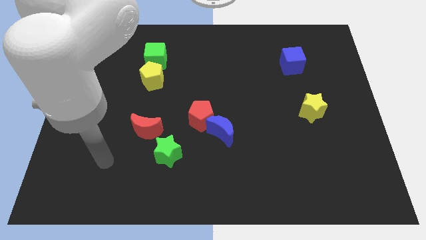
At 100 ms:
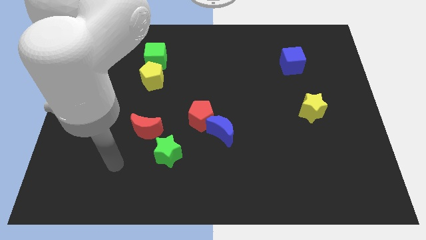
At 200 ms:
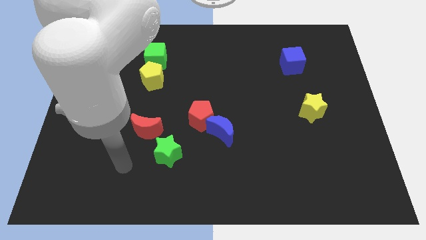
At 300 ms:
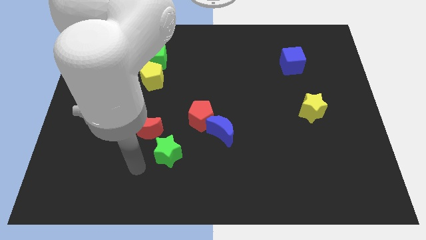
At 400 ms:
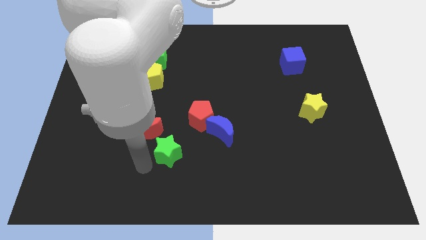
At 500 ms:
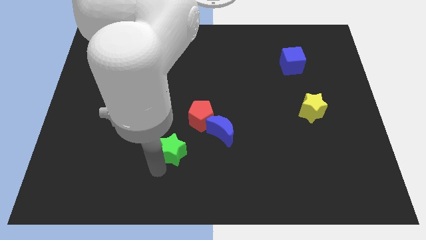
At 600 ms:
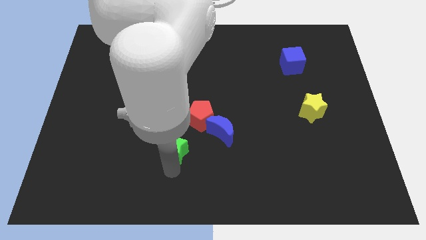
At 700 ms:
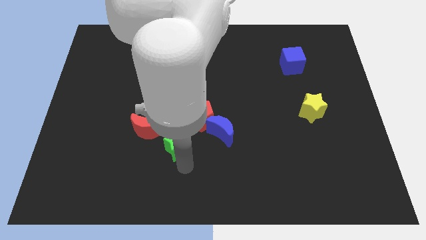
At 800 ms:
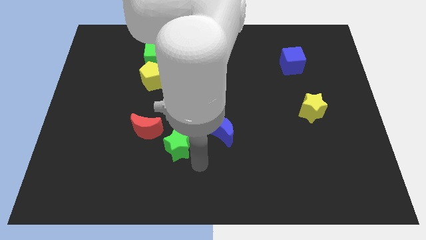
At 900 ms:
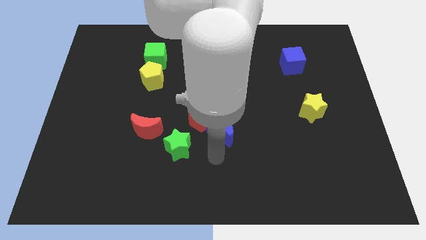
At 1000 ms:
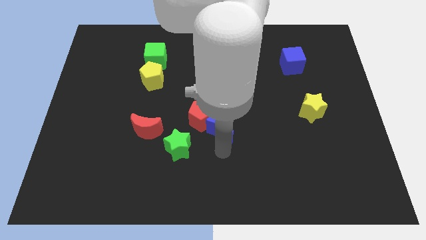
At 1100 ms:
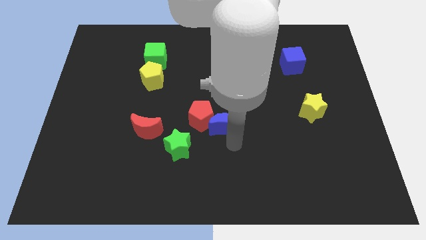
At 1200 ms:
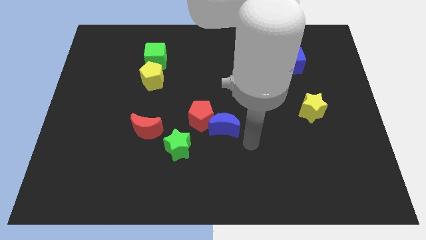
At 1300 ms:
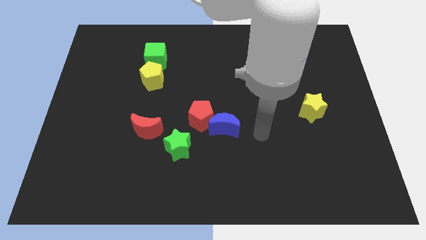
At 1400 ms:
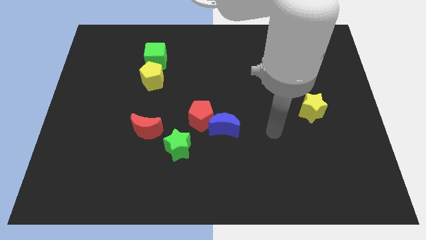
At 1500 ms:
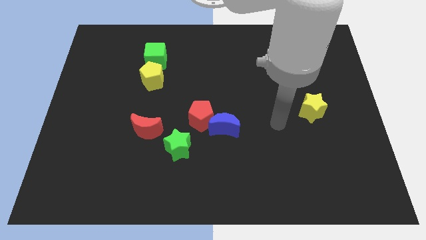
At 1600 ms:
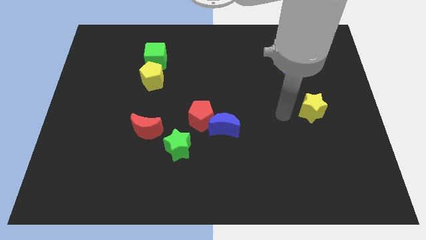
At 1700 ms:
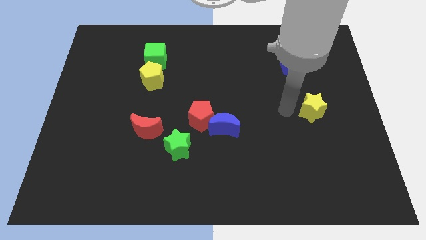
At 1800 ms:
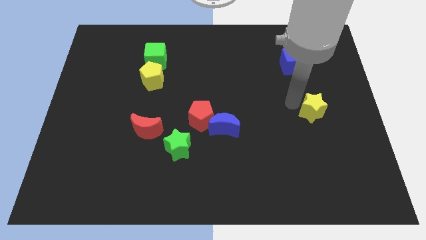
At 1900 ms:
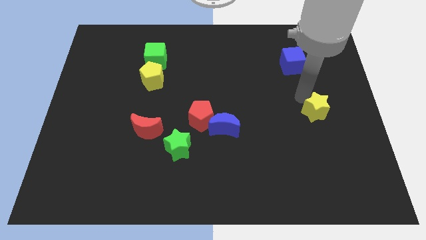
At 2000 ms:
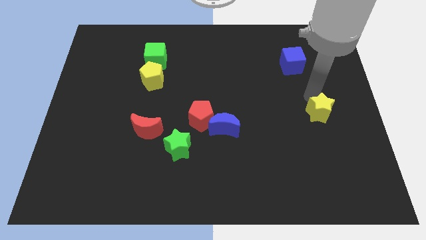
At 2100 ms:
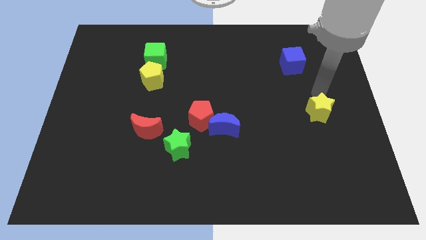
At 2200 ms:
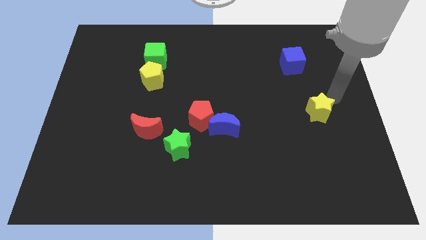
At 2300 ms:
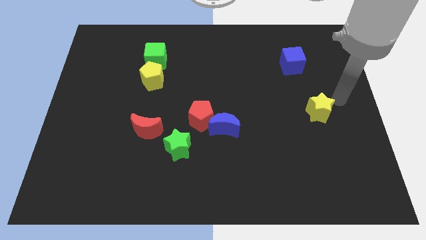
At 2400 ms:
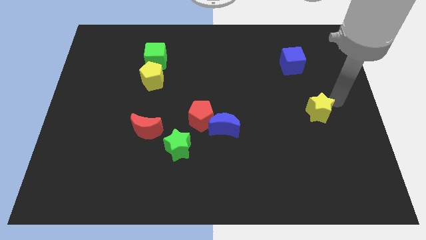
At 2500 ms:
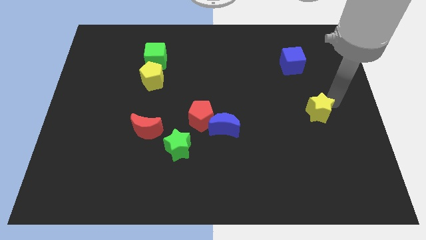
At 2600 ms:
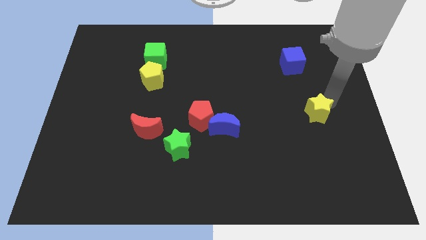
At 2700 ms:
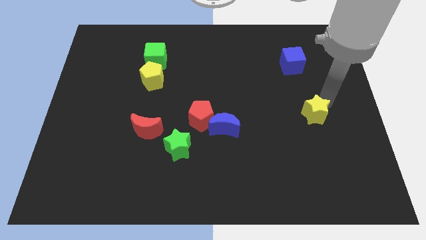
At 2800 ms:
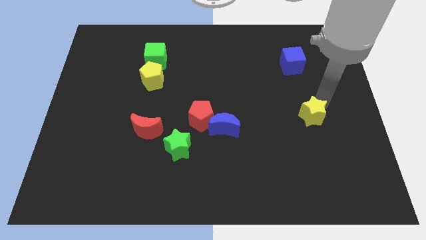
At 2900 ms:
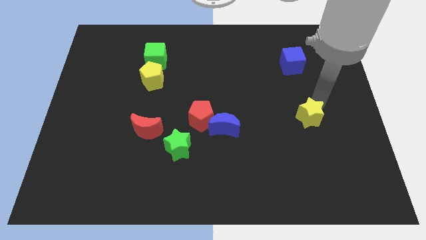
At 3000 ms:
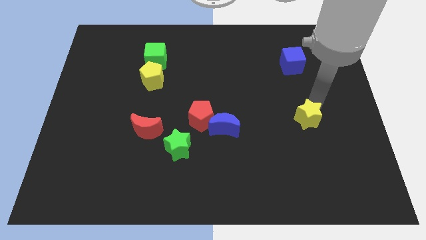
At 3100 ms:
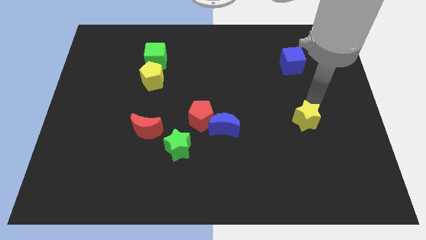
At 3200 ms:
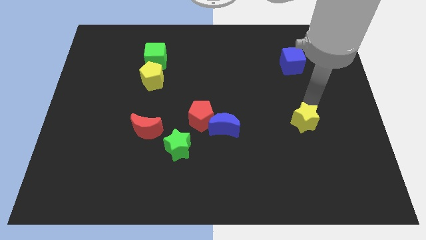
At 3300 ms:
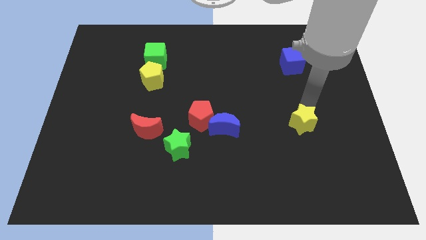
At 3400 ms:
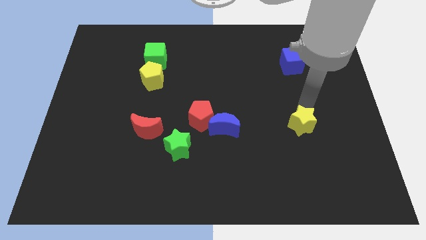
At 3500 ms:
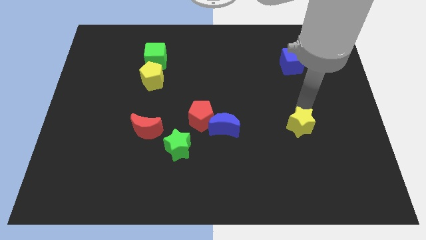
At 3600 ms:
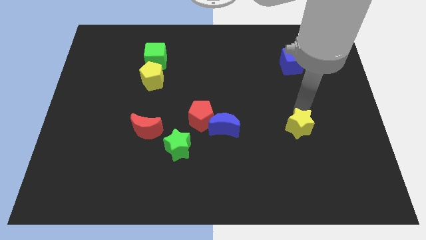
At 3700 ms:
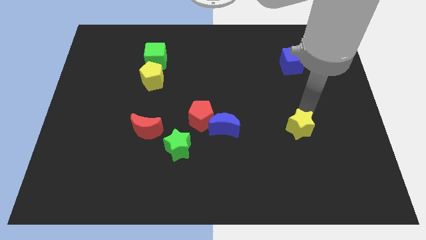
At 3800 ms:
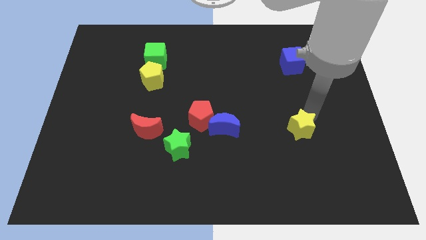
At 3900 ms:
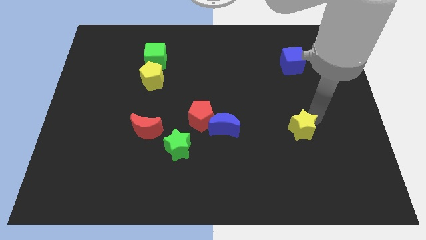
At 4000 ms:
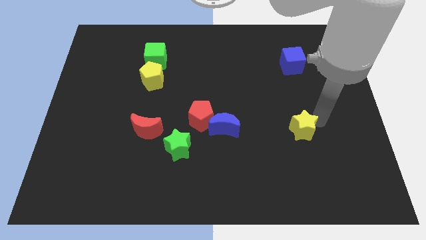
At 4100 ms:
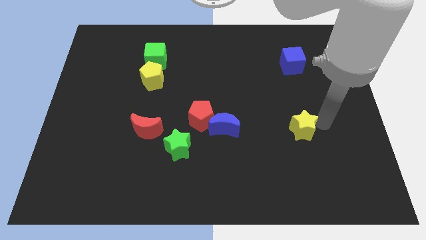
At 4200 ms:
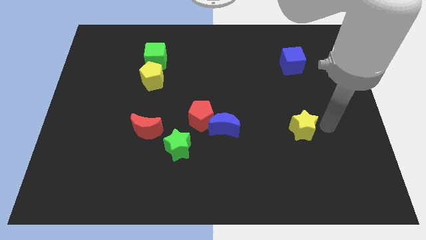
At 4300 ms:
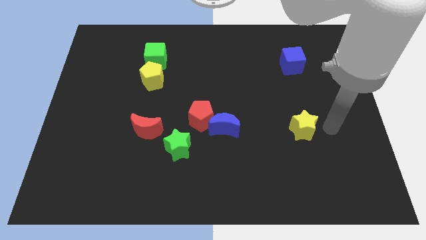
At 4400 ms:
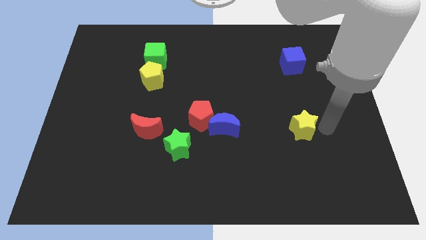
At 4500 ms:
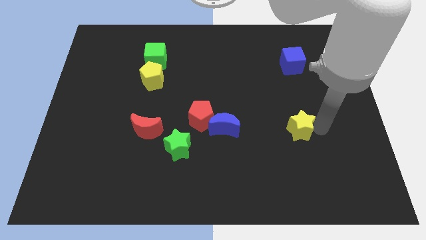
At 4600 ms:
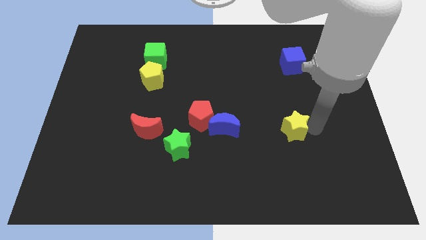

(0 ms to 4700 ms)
slide the yellow star downwards and left diagonally a bit

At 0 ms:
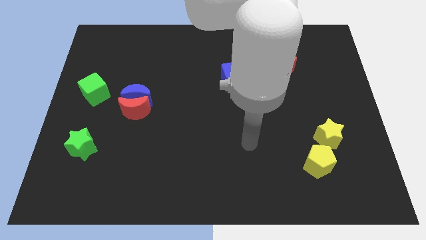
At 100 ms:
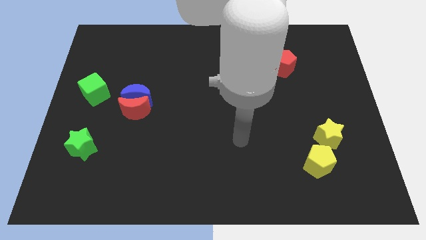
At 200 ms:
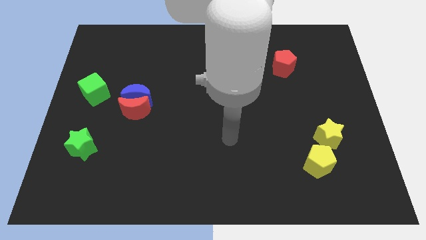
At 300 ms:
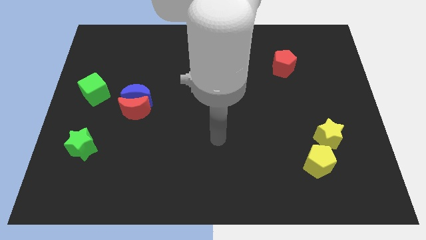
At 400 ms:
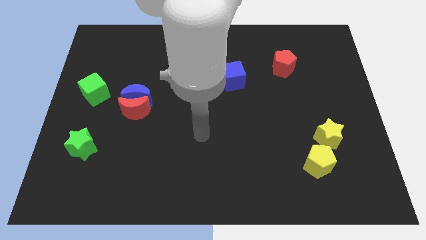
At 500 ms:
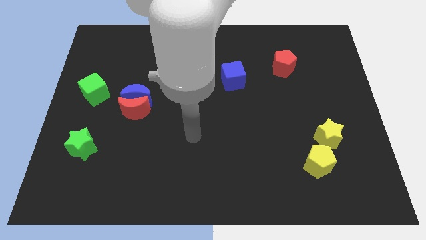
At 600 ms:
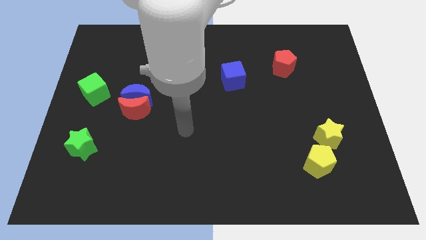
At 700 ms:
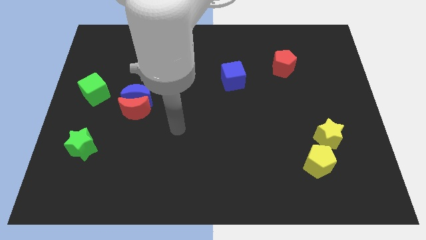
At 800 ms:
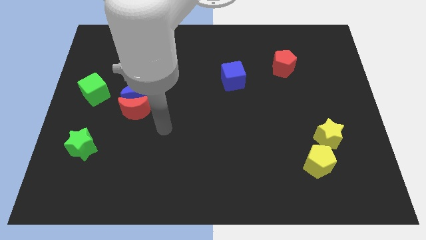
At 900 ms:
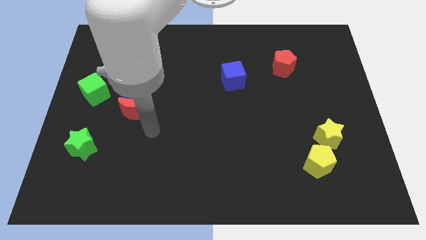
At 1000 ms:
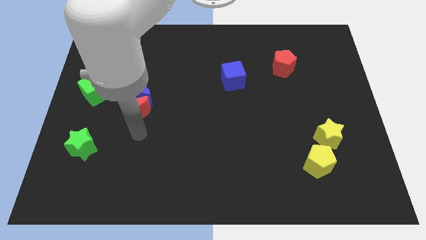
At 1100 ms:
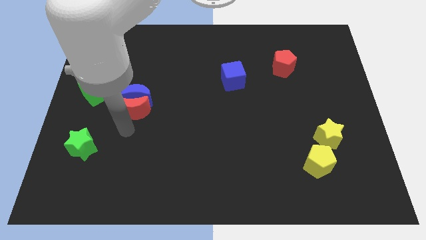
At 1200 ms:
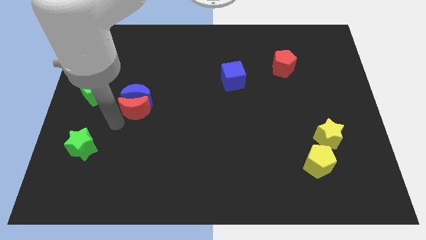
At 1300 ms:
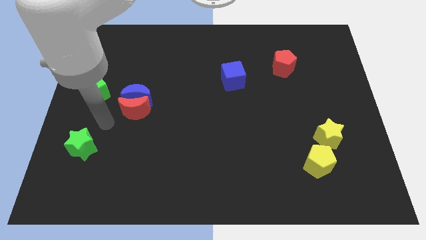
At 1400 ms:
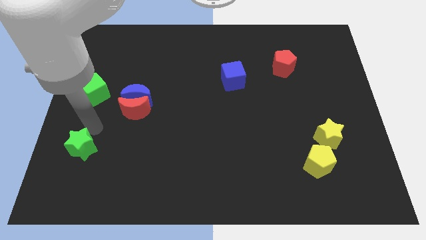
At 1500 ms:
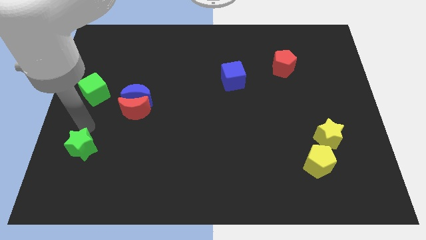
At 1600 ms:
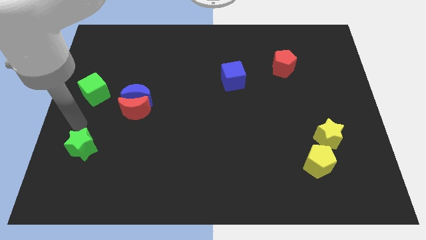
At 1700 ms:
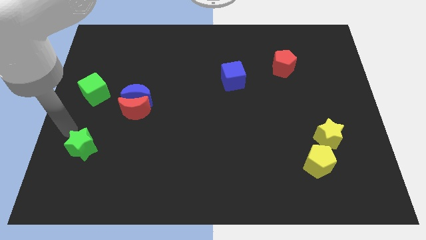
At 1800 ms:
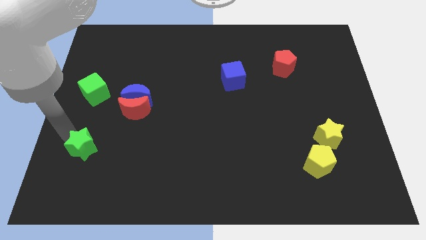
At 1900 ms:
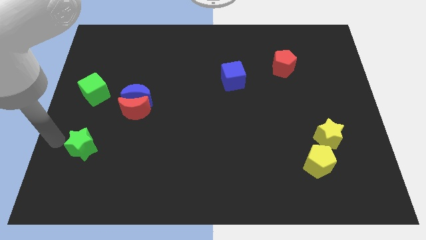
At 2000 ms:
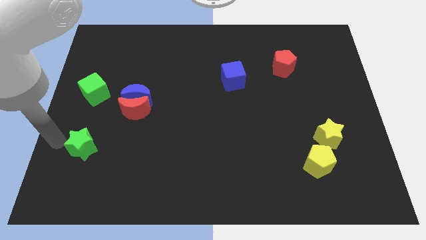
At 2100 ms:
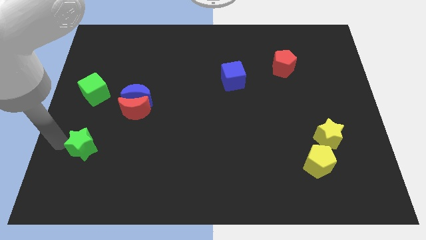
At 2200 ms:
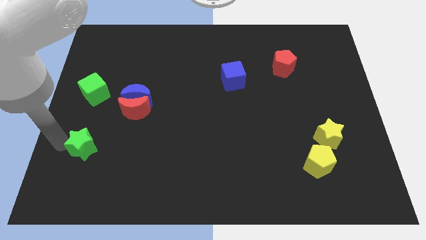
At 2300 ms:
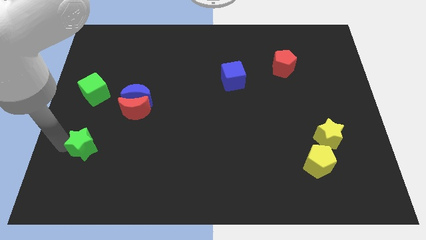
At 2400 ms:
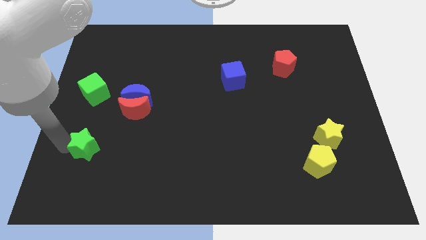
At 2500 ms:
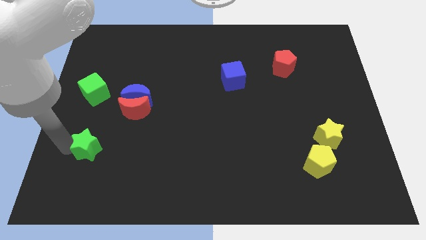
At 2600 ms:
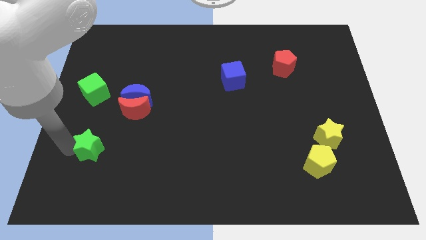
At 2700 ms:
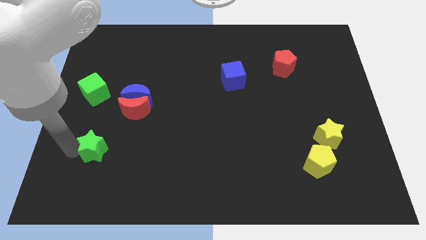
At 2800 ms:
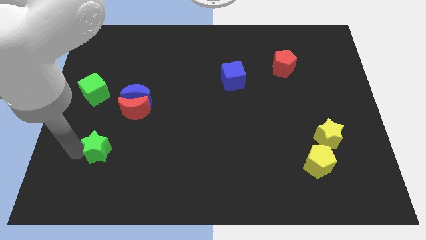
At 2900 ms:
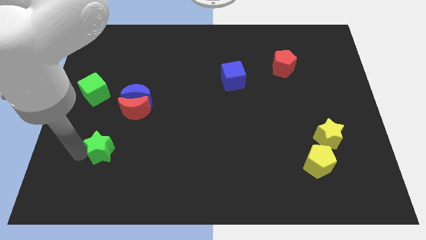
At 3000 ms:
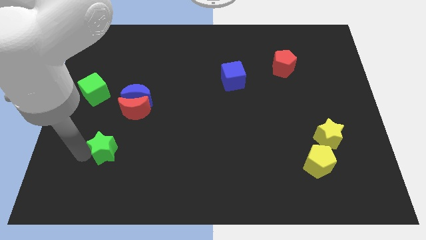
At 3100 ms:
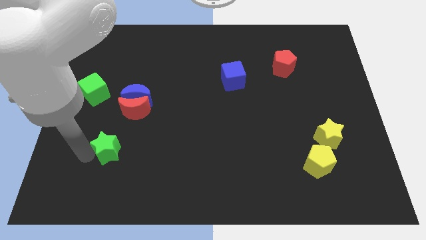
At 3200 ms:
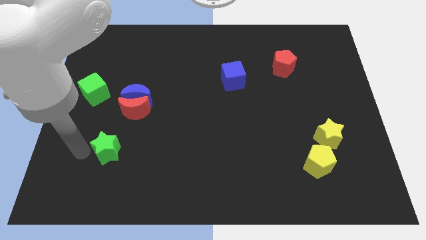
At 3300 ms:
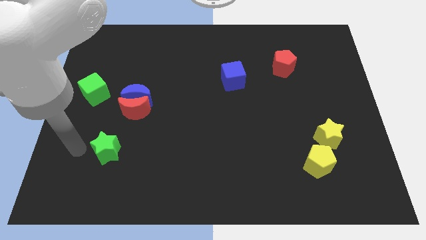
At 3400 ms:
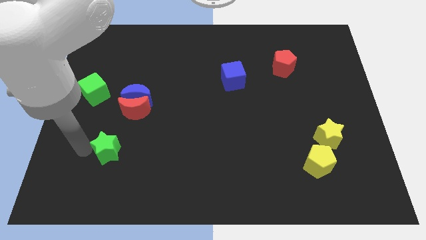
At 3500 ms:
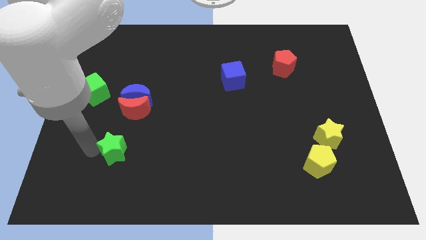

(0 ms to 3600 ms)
slightly push the green star right
